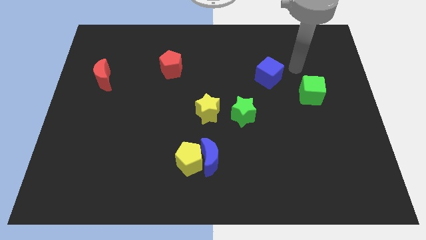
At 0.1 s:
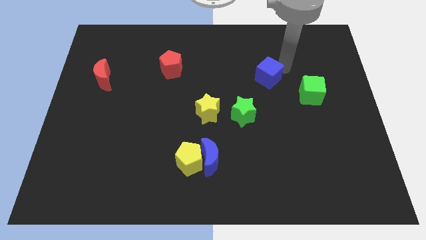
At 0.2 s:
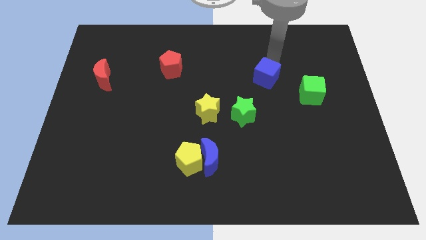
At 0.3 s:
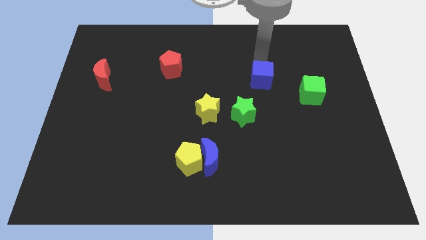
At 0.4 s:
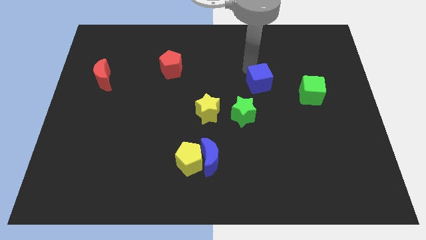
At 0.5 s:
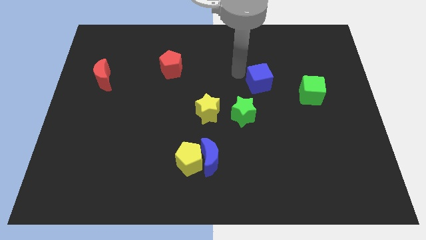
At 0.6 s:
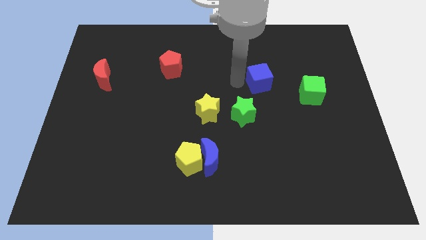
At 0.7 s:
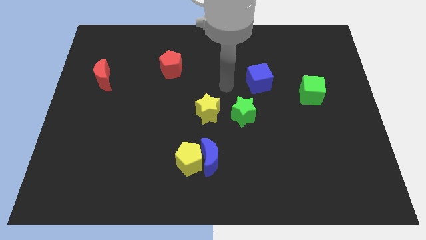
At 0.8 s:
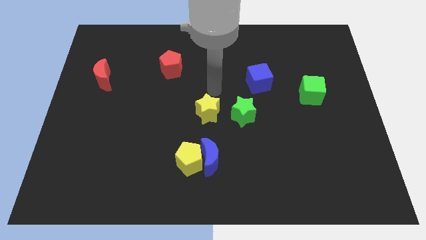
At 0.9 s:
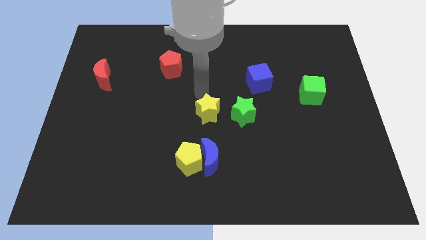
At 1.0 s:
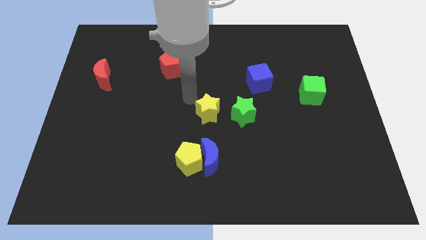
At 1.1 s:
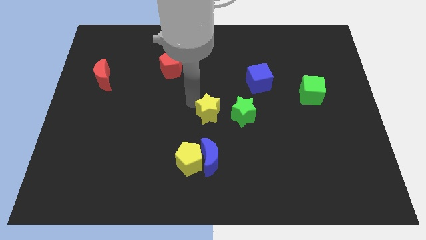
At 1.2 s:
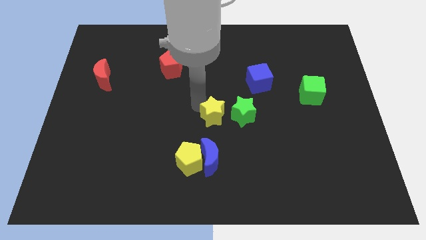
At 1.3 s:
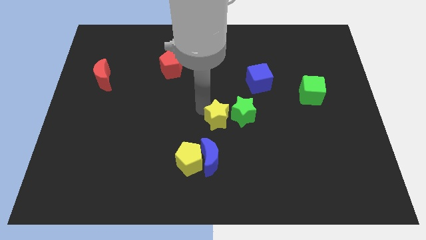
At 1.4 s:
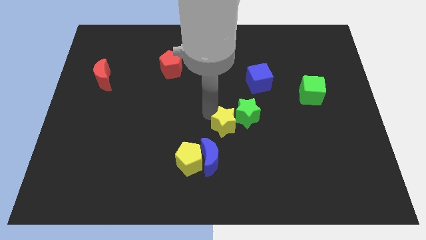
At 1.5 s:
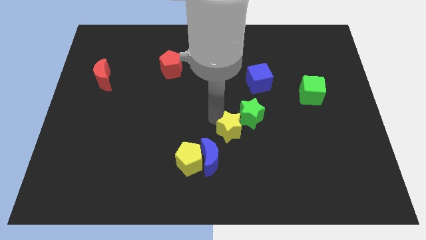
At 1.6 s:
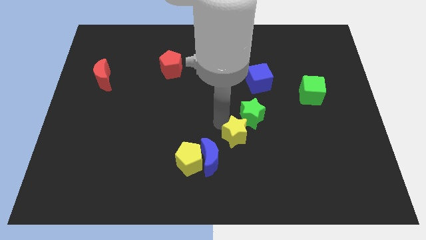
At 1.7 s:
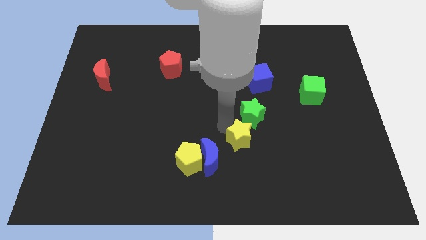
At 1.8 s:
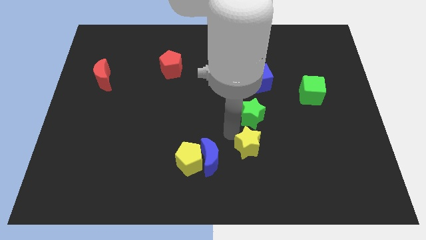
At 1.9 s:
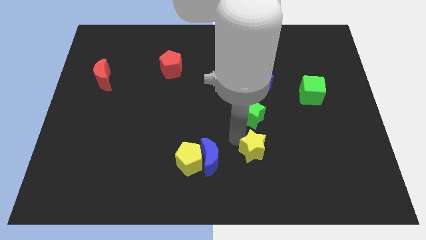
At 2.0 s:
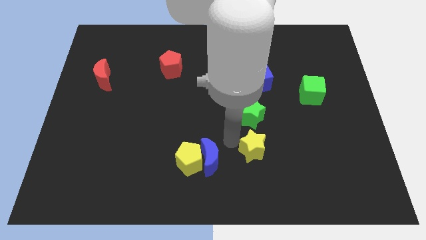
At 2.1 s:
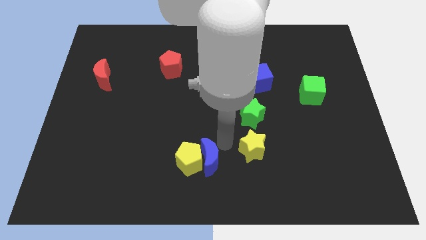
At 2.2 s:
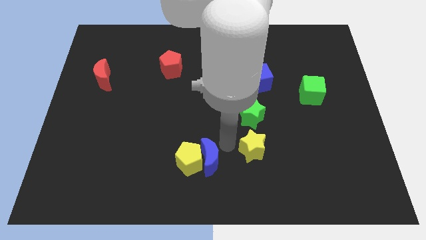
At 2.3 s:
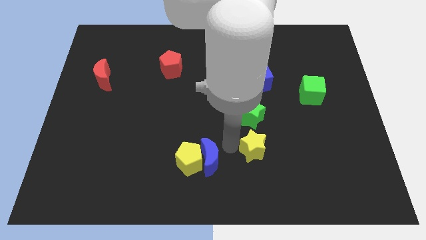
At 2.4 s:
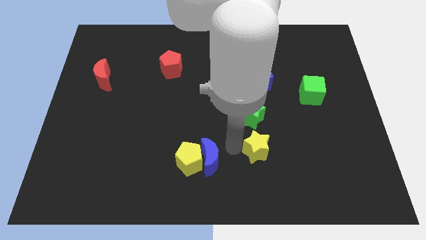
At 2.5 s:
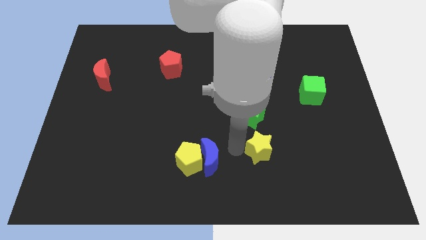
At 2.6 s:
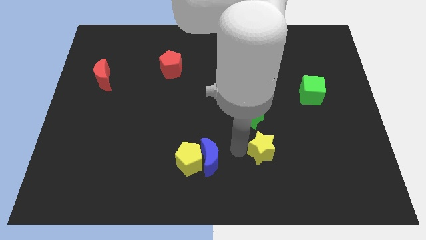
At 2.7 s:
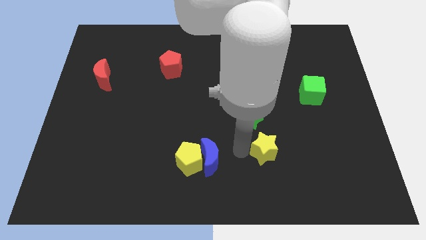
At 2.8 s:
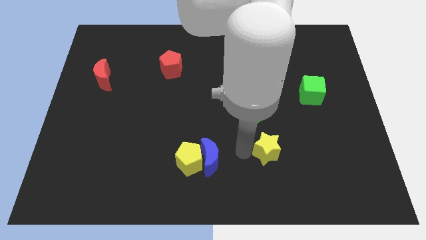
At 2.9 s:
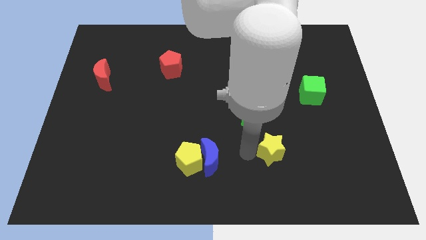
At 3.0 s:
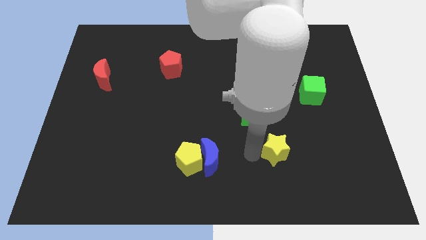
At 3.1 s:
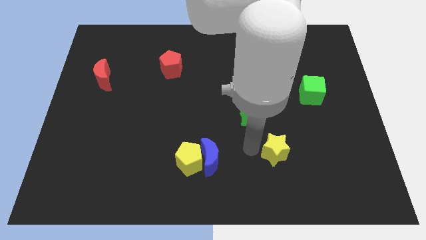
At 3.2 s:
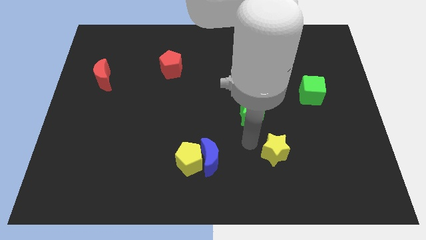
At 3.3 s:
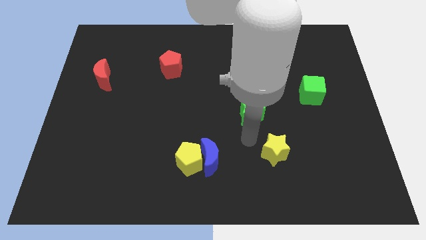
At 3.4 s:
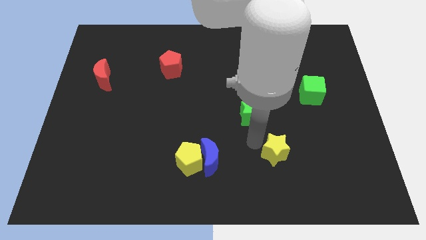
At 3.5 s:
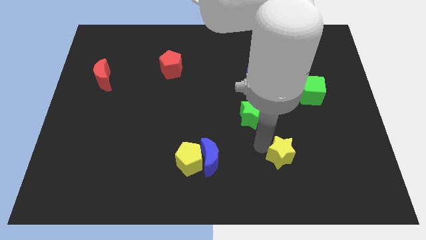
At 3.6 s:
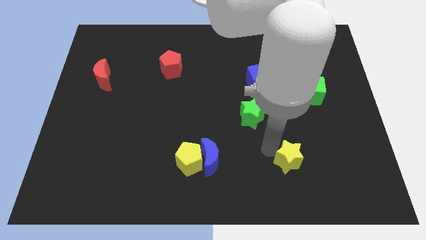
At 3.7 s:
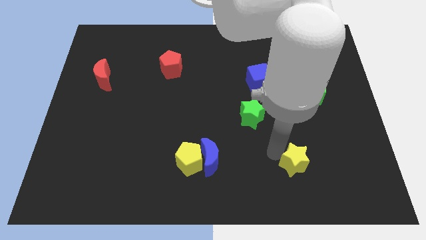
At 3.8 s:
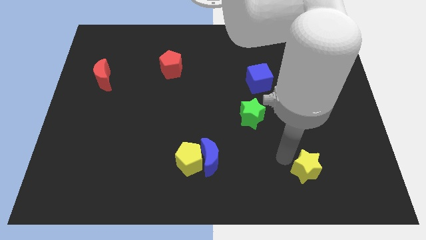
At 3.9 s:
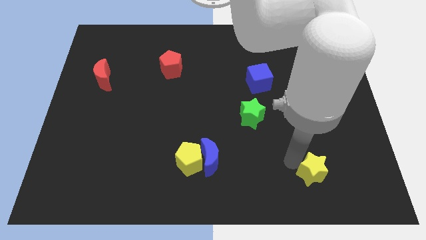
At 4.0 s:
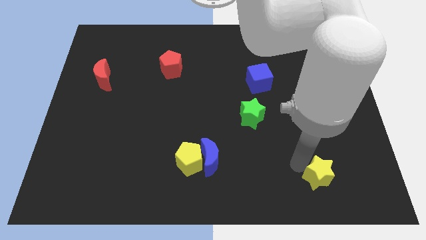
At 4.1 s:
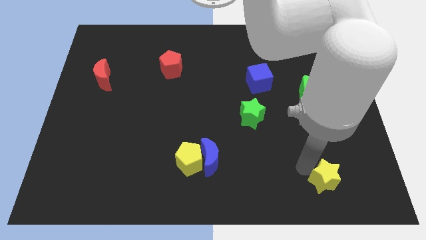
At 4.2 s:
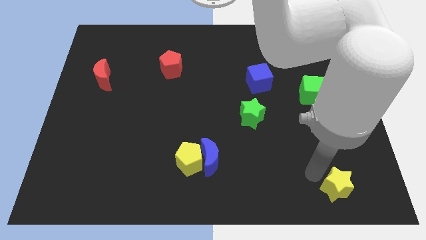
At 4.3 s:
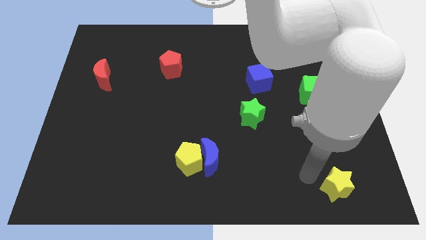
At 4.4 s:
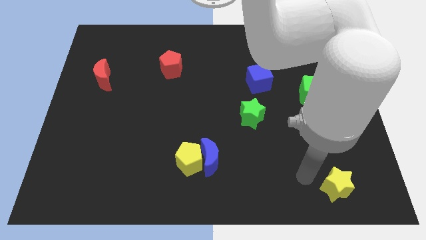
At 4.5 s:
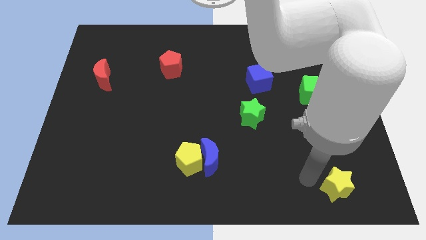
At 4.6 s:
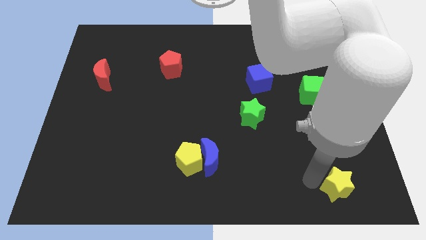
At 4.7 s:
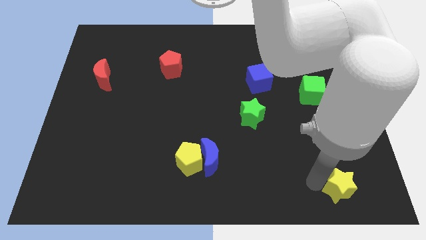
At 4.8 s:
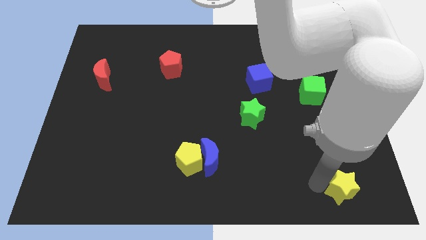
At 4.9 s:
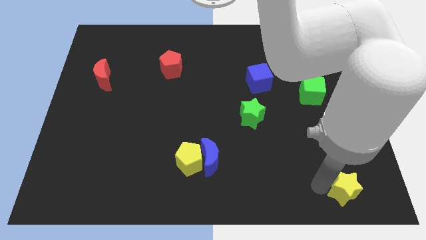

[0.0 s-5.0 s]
push the yellow star to the bottom right corner

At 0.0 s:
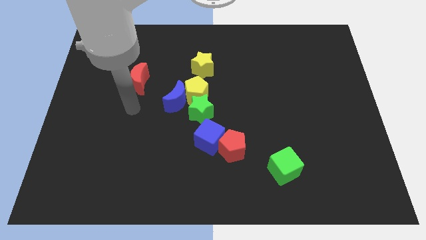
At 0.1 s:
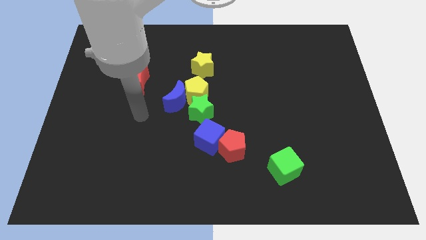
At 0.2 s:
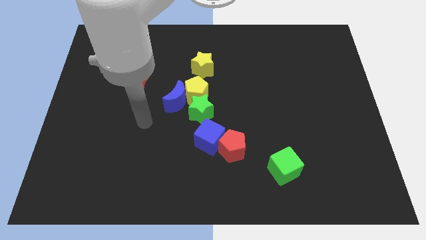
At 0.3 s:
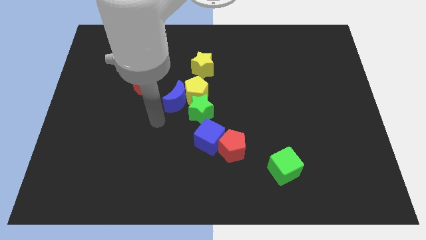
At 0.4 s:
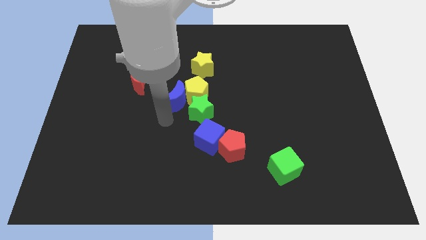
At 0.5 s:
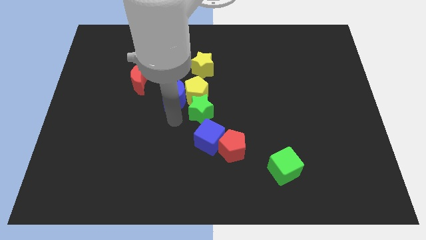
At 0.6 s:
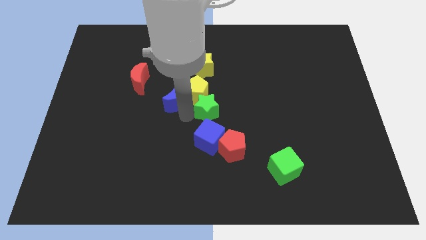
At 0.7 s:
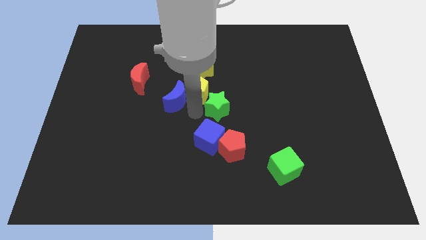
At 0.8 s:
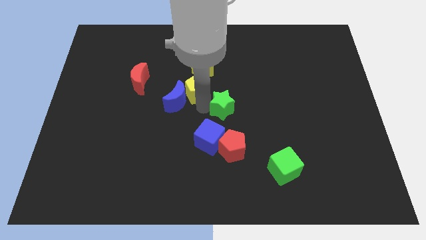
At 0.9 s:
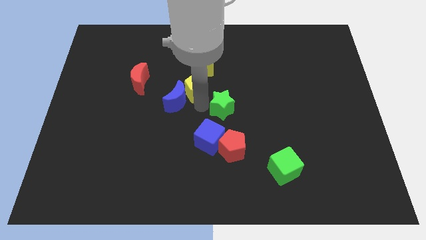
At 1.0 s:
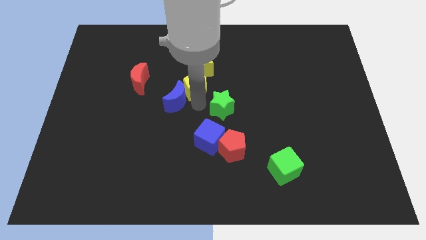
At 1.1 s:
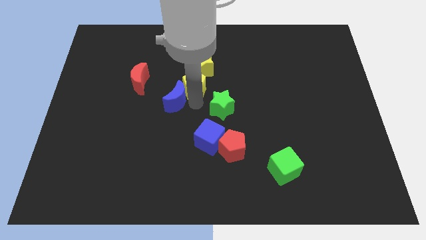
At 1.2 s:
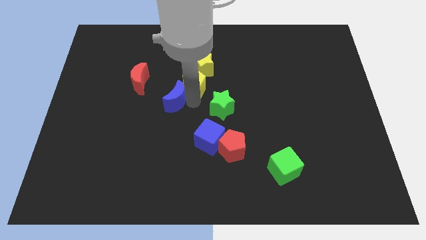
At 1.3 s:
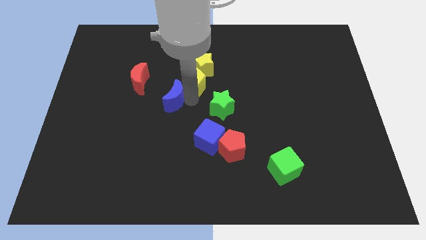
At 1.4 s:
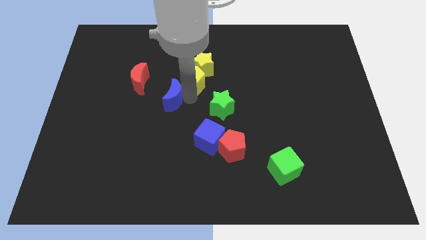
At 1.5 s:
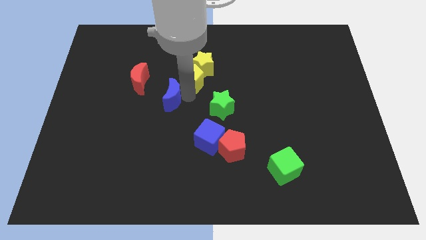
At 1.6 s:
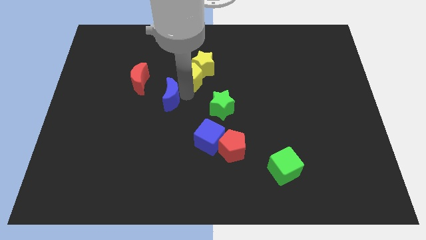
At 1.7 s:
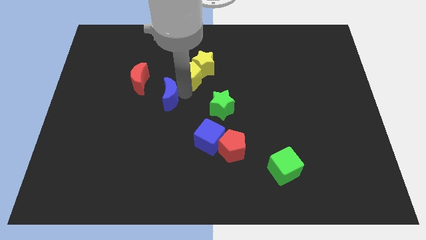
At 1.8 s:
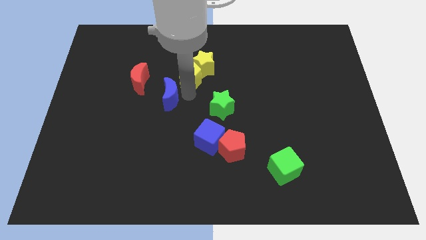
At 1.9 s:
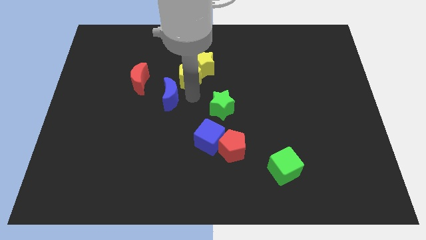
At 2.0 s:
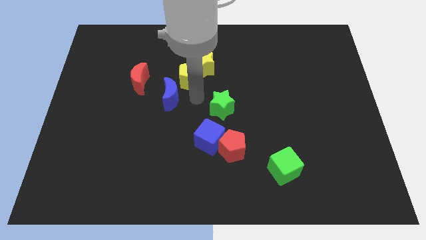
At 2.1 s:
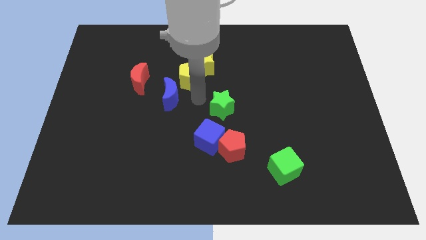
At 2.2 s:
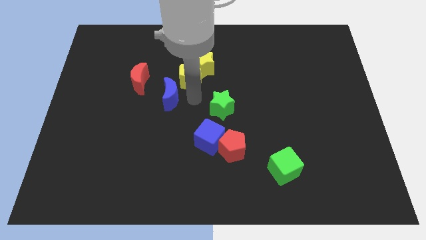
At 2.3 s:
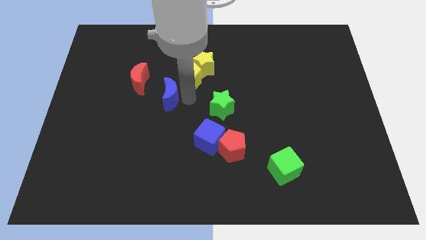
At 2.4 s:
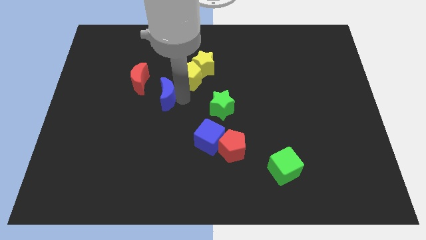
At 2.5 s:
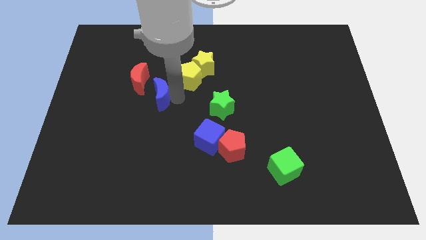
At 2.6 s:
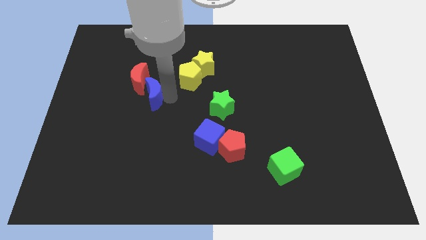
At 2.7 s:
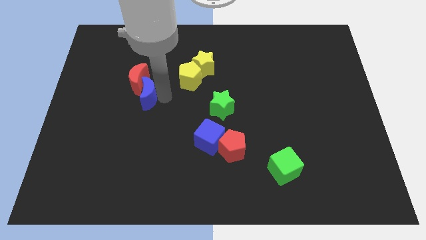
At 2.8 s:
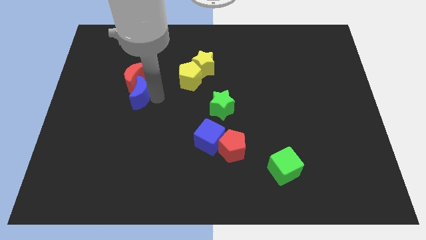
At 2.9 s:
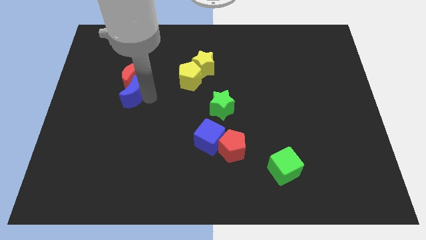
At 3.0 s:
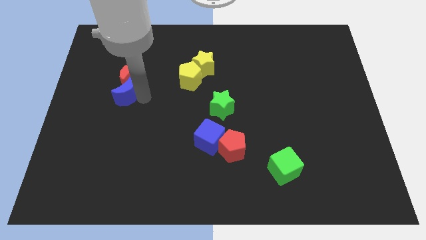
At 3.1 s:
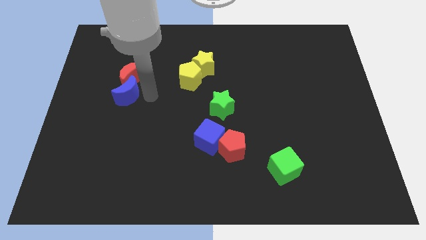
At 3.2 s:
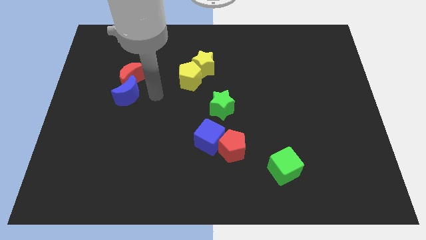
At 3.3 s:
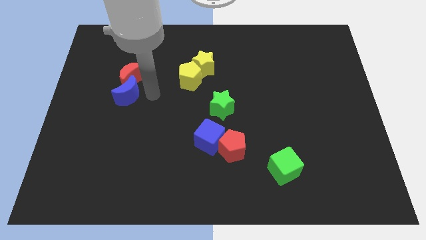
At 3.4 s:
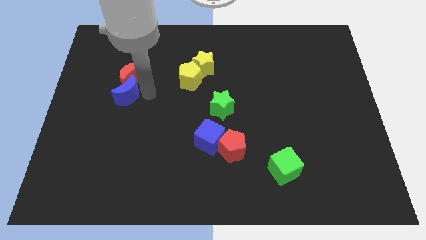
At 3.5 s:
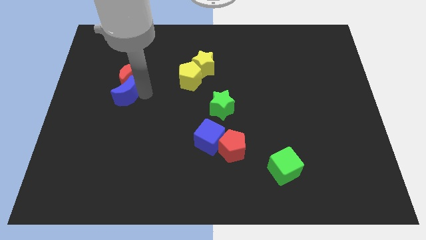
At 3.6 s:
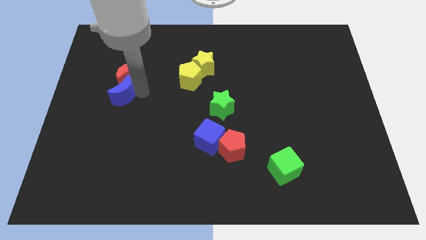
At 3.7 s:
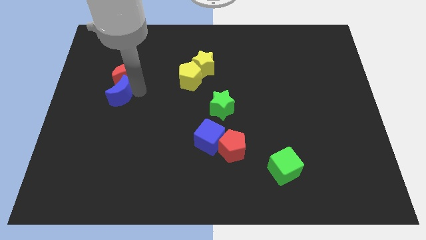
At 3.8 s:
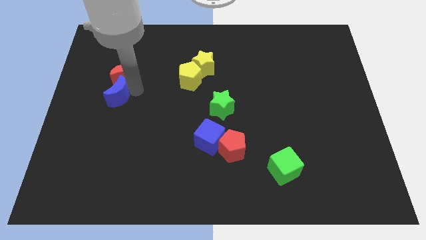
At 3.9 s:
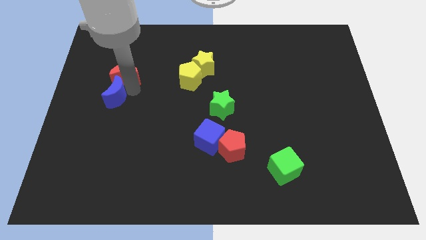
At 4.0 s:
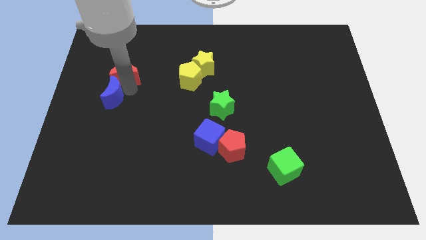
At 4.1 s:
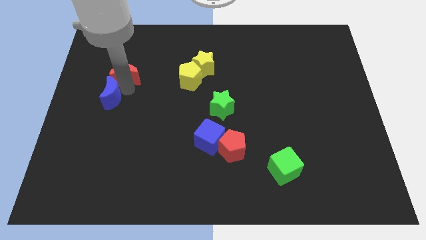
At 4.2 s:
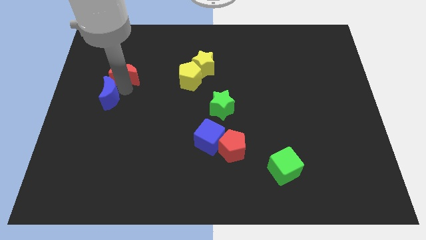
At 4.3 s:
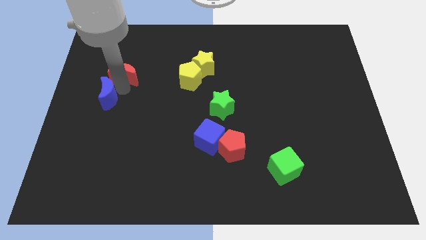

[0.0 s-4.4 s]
move the blue moon to the left side
